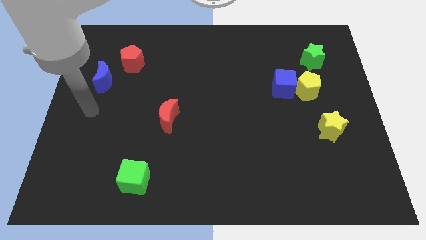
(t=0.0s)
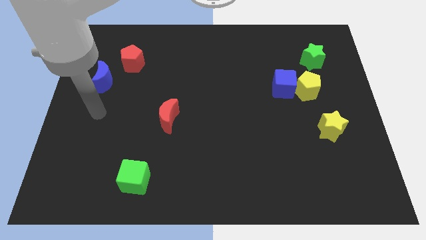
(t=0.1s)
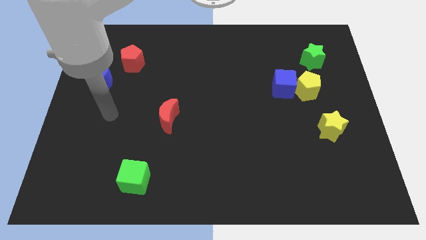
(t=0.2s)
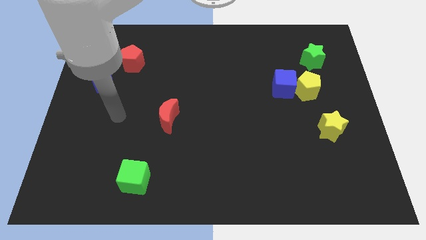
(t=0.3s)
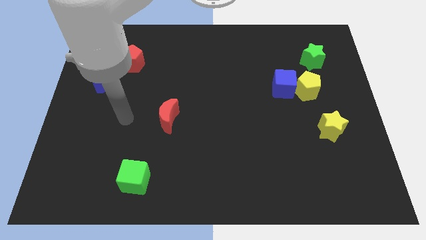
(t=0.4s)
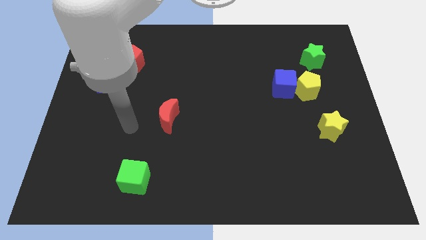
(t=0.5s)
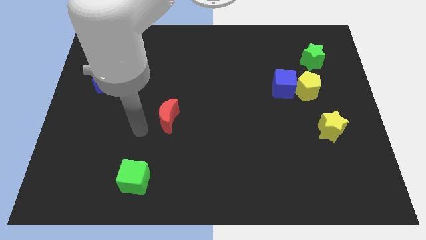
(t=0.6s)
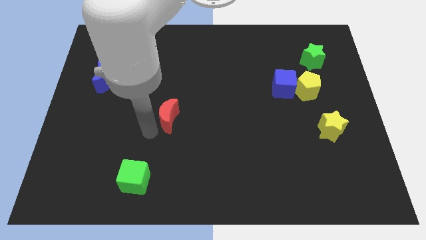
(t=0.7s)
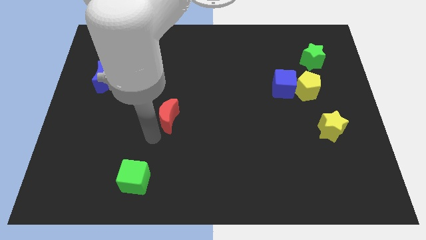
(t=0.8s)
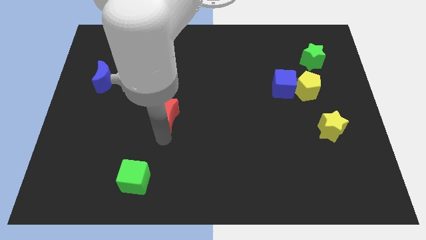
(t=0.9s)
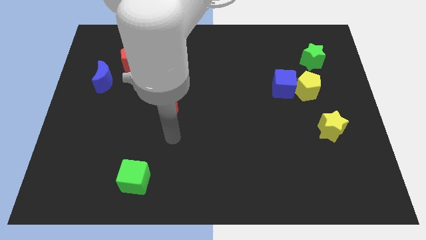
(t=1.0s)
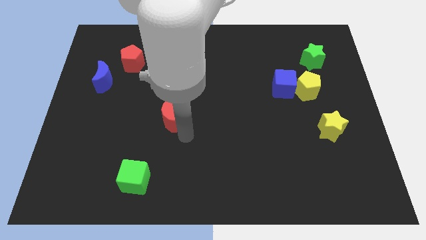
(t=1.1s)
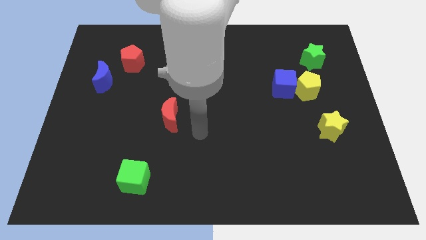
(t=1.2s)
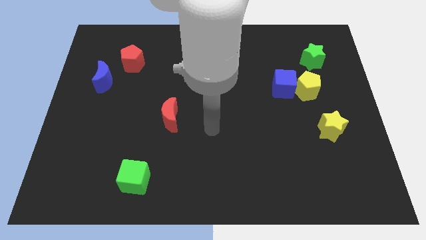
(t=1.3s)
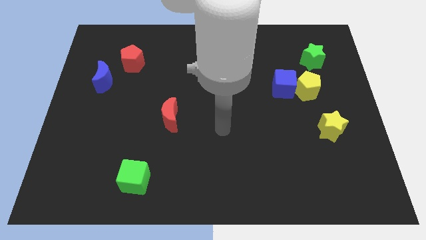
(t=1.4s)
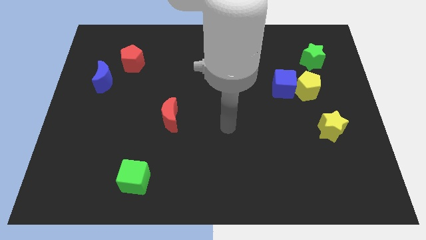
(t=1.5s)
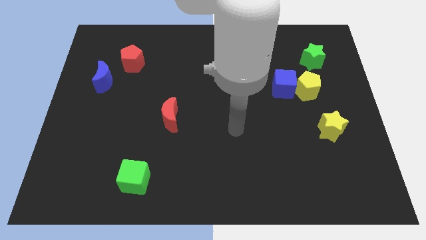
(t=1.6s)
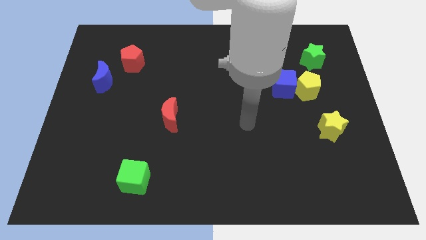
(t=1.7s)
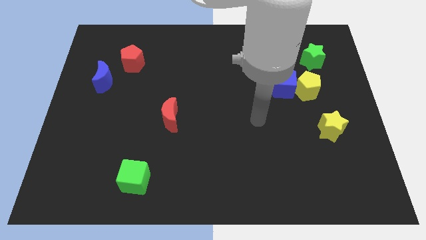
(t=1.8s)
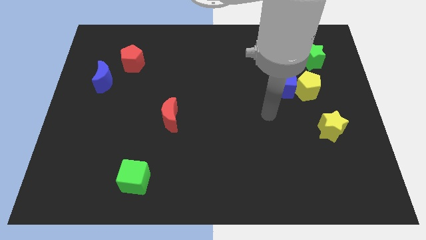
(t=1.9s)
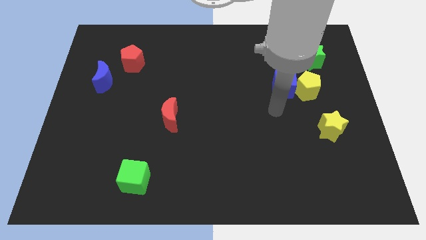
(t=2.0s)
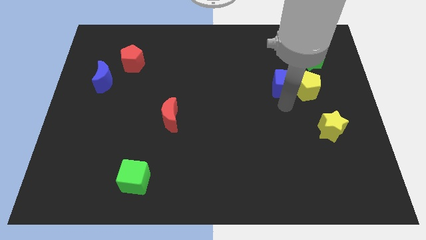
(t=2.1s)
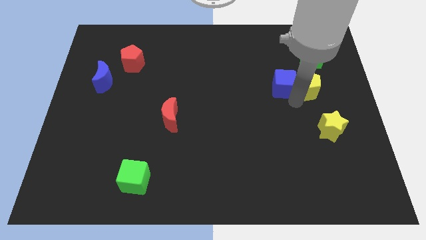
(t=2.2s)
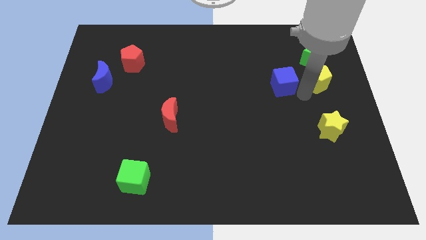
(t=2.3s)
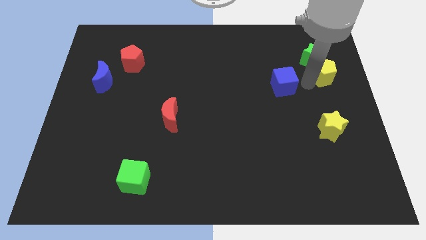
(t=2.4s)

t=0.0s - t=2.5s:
move the blue cube away from the yellow pentagon

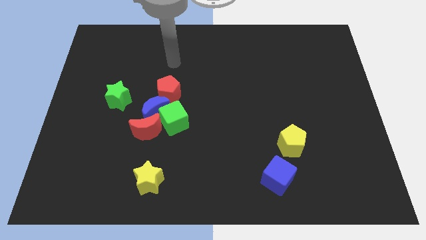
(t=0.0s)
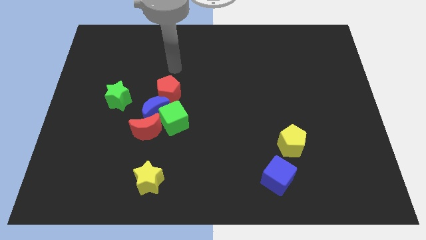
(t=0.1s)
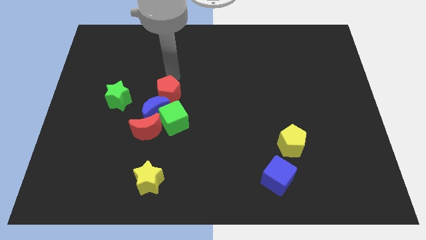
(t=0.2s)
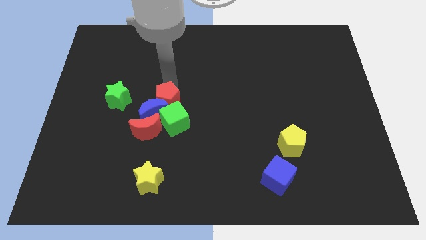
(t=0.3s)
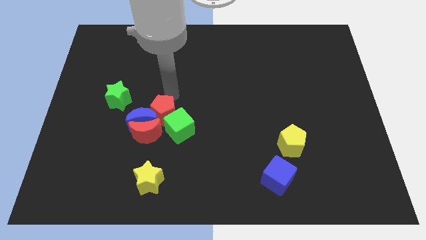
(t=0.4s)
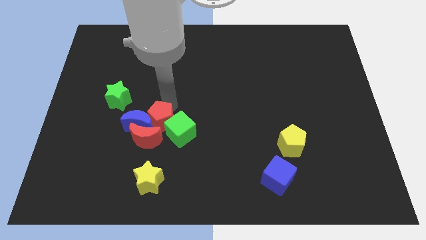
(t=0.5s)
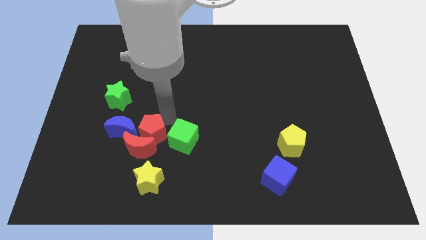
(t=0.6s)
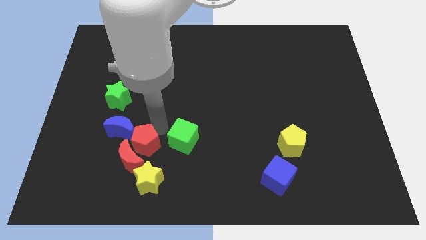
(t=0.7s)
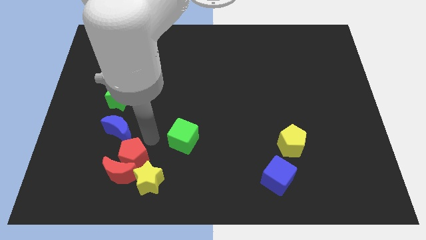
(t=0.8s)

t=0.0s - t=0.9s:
separate the red moon from the blue moon and green cube

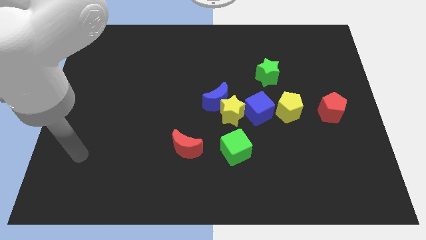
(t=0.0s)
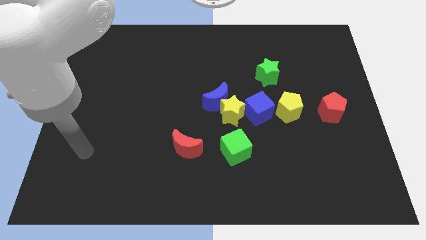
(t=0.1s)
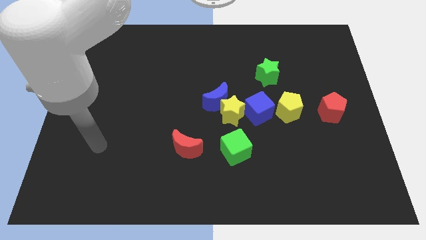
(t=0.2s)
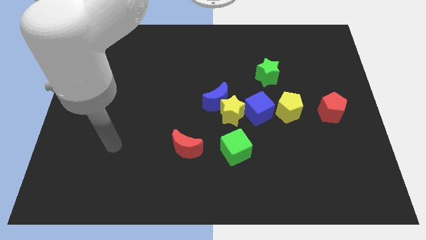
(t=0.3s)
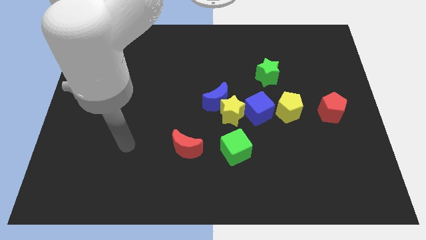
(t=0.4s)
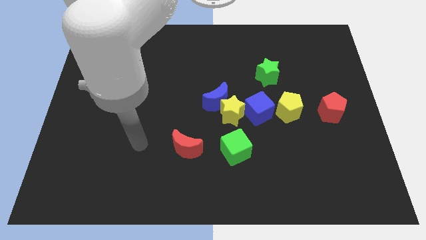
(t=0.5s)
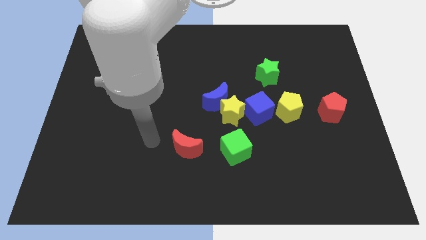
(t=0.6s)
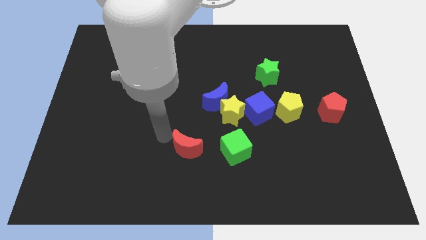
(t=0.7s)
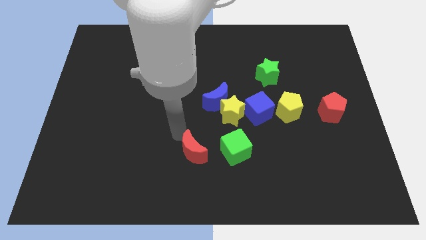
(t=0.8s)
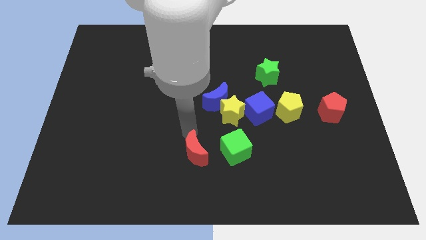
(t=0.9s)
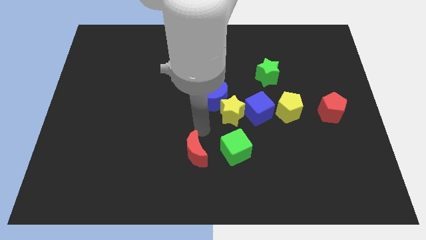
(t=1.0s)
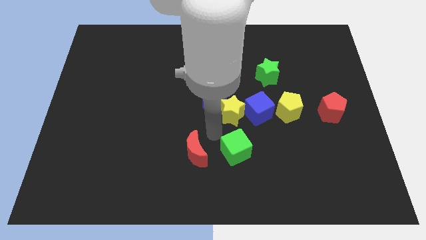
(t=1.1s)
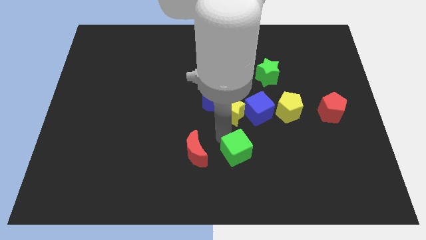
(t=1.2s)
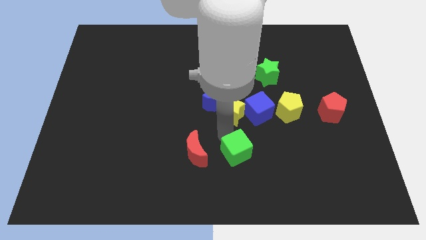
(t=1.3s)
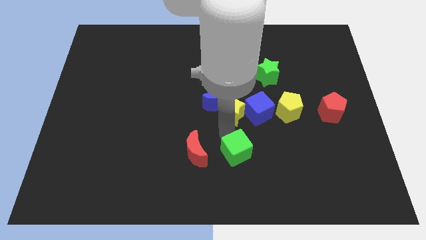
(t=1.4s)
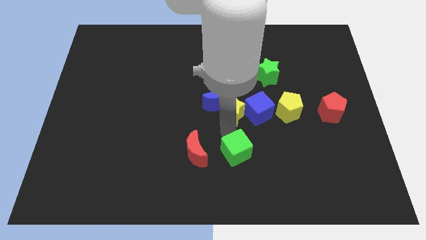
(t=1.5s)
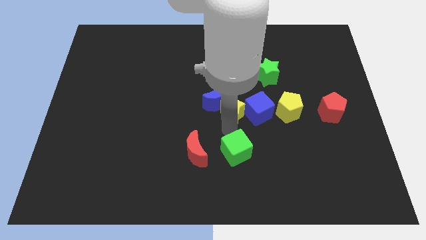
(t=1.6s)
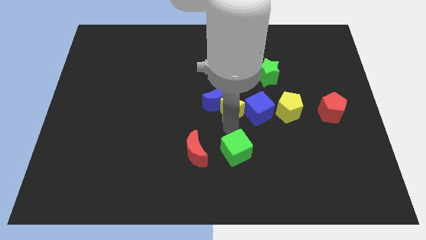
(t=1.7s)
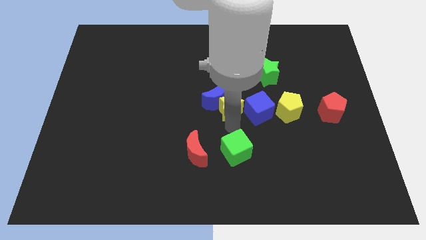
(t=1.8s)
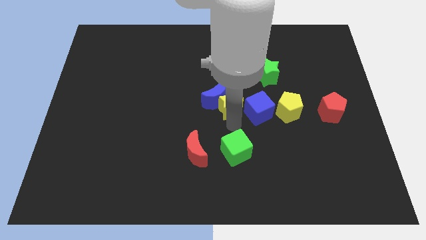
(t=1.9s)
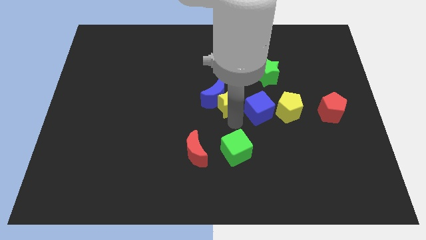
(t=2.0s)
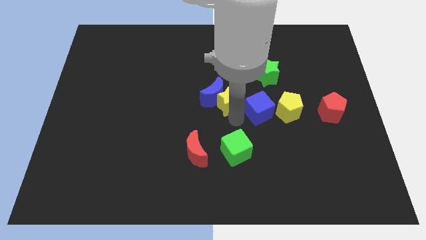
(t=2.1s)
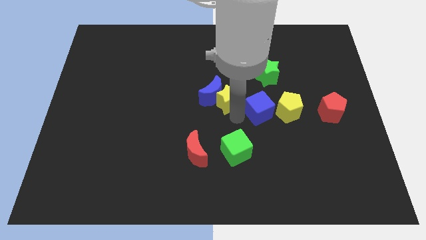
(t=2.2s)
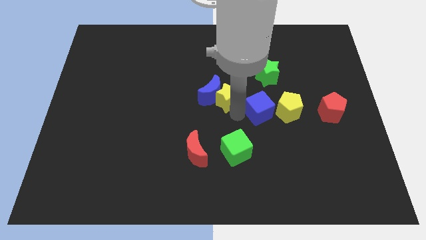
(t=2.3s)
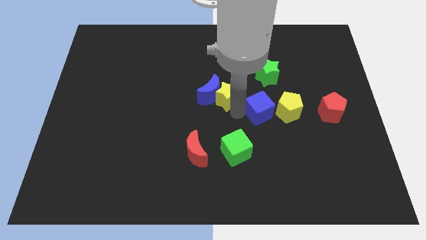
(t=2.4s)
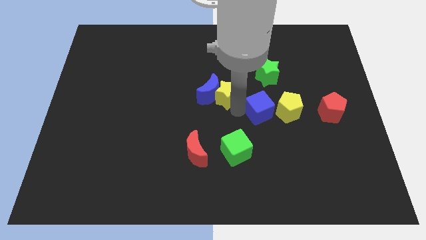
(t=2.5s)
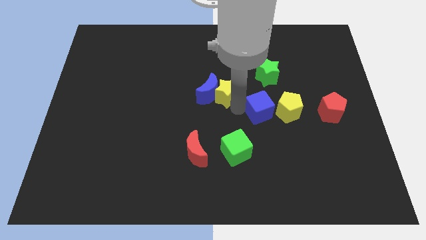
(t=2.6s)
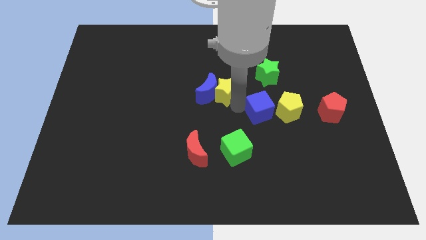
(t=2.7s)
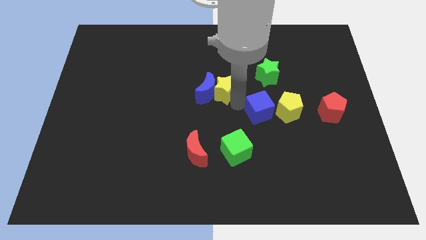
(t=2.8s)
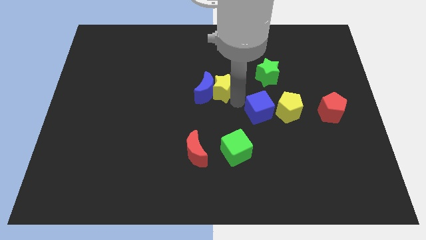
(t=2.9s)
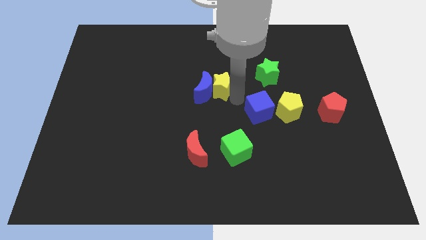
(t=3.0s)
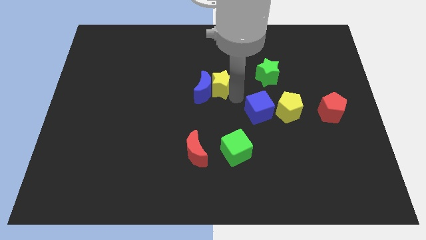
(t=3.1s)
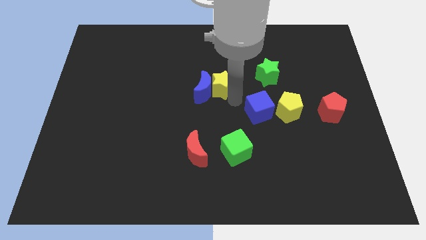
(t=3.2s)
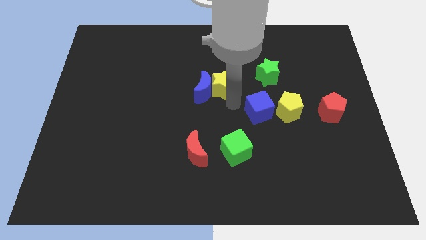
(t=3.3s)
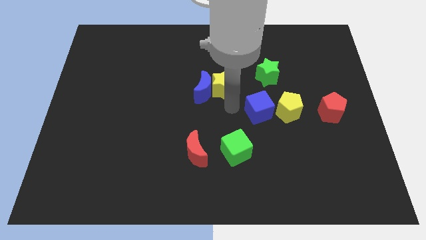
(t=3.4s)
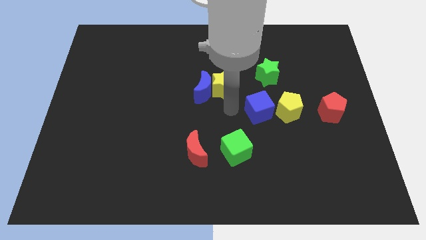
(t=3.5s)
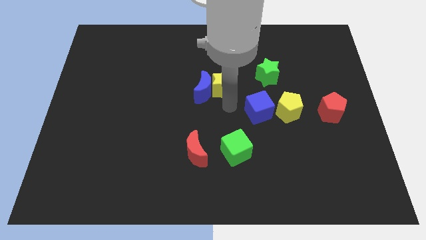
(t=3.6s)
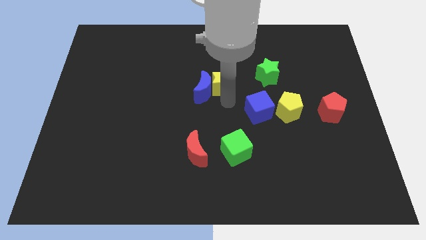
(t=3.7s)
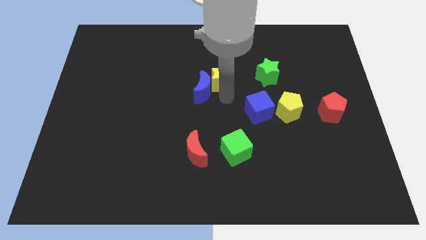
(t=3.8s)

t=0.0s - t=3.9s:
pull the yellow star apart from the group

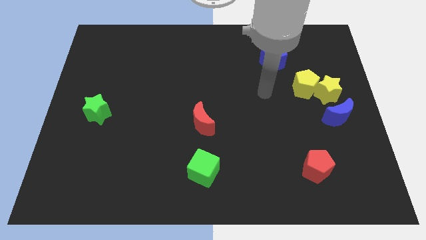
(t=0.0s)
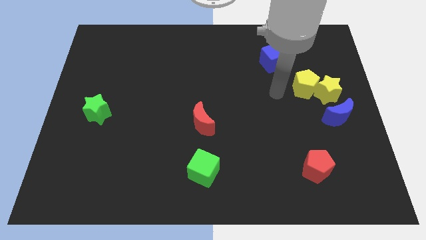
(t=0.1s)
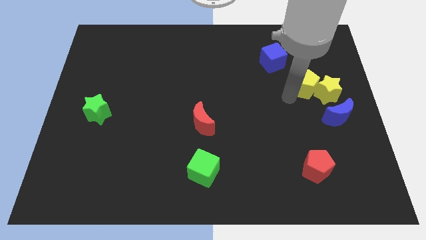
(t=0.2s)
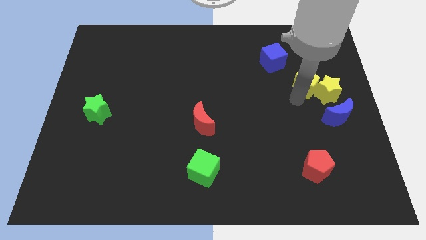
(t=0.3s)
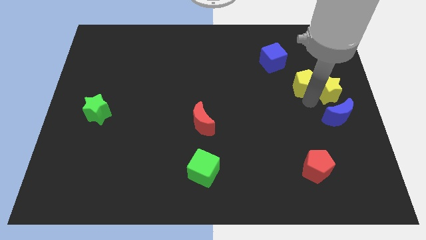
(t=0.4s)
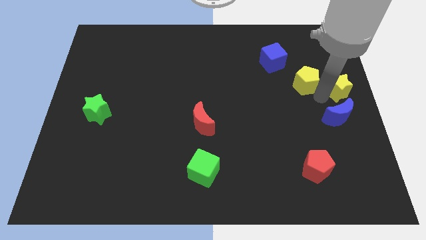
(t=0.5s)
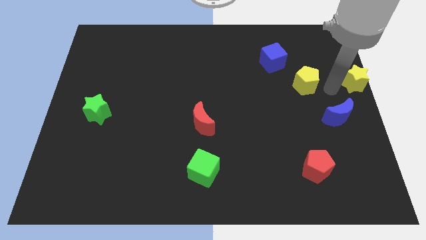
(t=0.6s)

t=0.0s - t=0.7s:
separate the yellow pentagon from the yellow star

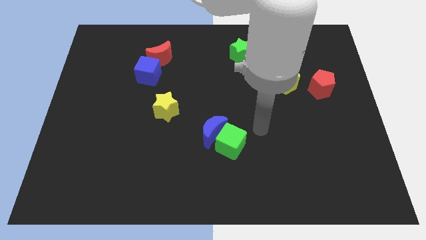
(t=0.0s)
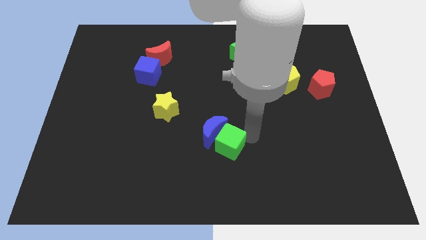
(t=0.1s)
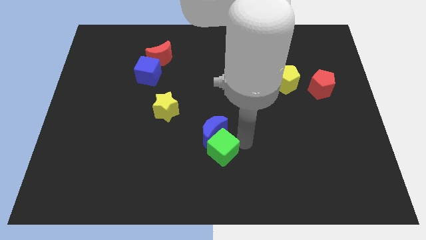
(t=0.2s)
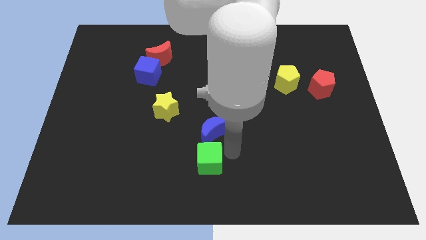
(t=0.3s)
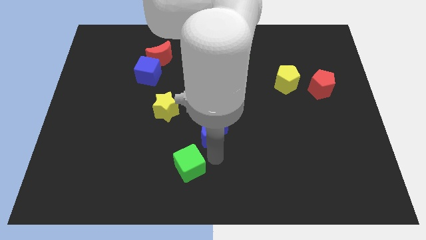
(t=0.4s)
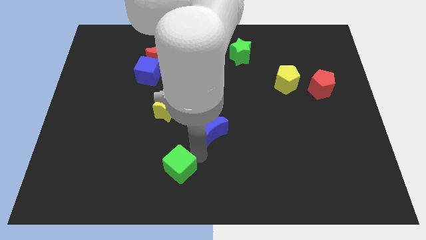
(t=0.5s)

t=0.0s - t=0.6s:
separate the blue moon from the green cube

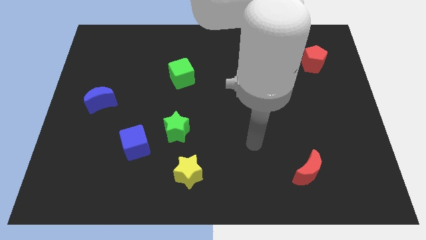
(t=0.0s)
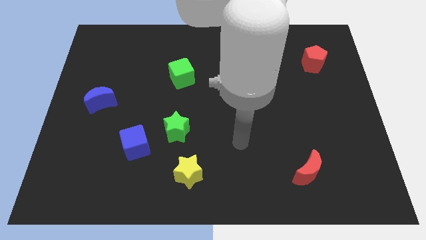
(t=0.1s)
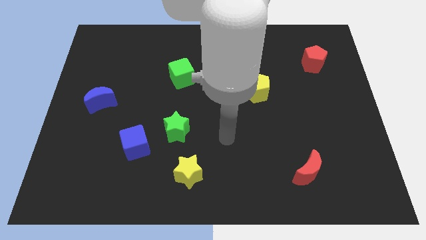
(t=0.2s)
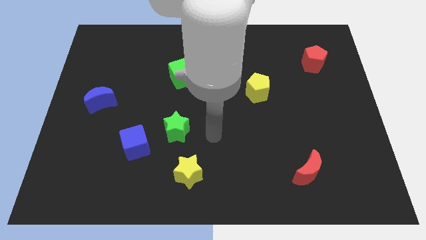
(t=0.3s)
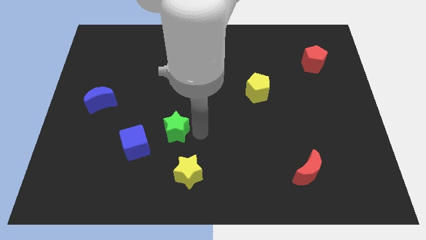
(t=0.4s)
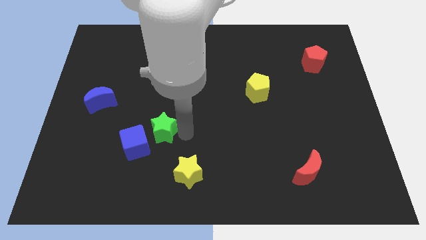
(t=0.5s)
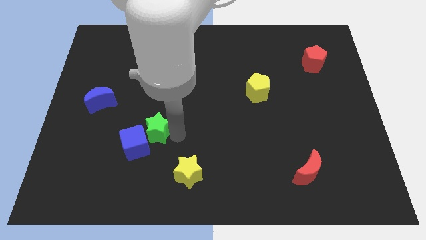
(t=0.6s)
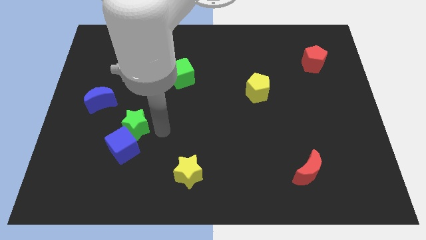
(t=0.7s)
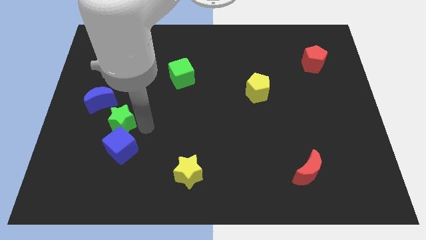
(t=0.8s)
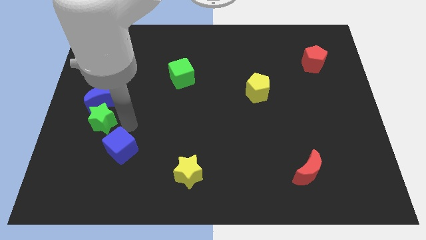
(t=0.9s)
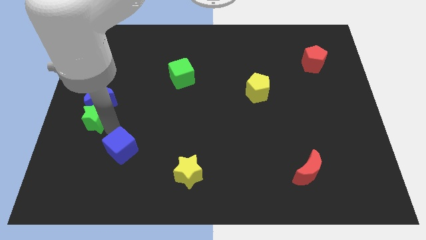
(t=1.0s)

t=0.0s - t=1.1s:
pull the blue cube apart from the green star
